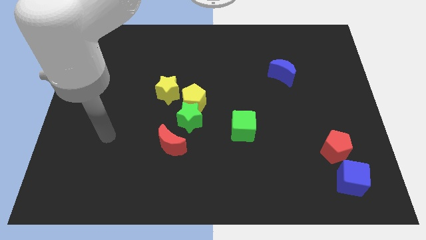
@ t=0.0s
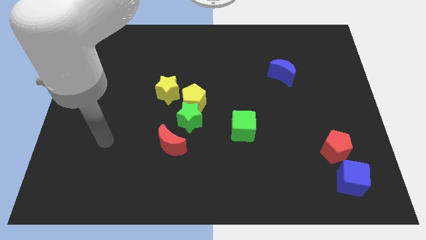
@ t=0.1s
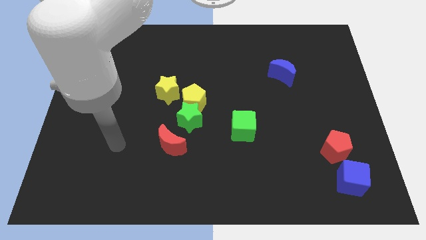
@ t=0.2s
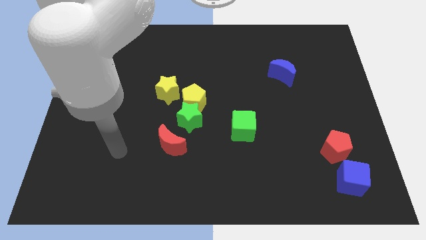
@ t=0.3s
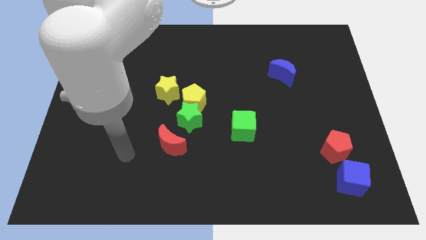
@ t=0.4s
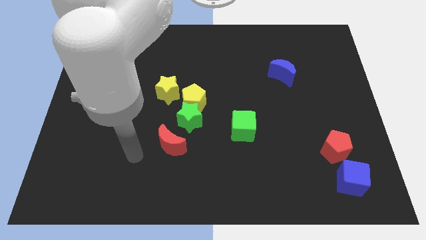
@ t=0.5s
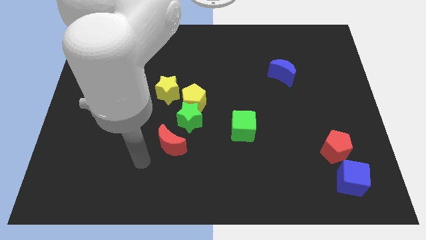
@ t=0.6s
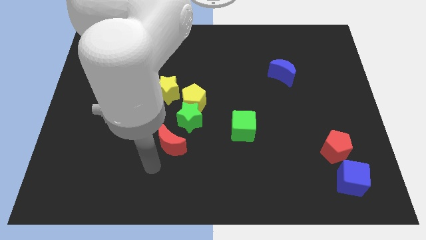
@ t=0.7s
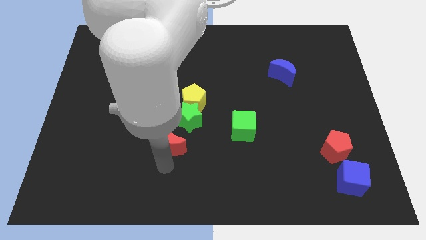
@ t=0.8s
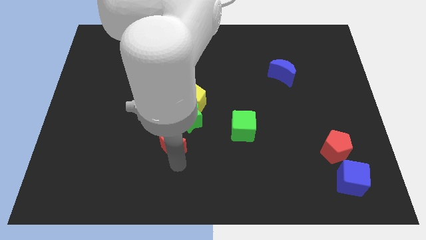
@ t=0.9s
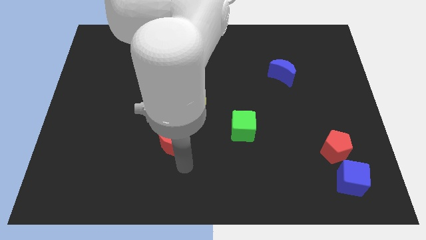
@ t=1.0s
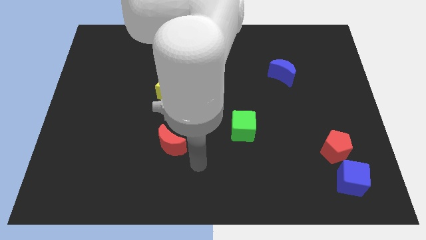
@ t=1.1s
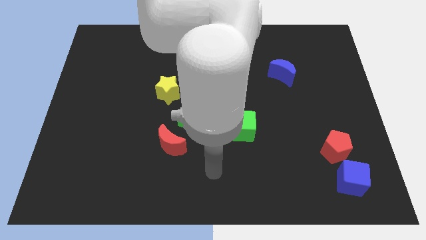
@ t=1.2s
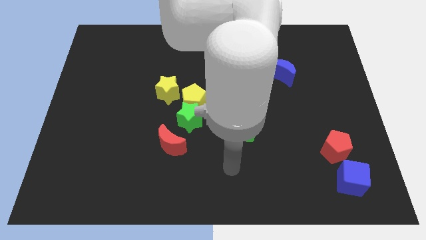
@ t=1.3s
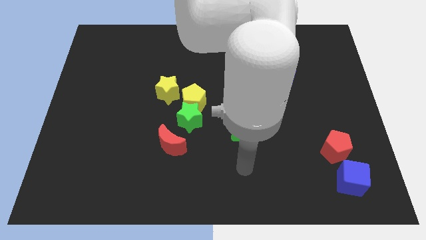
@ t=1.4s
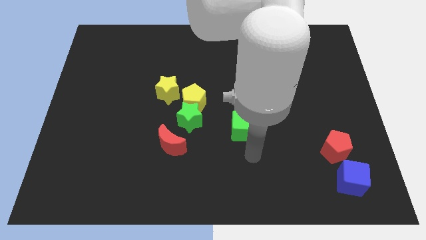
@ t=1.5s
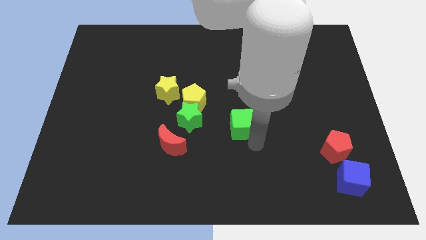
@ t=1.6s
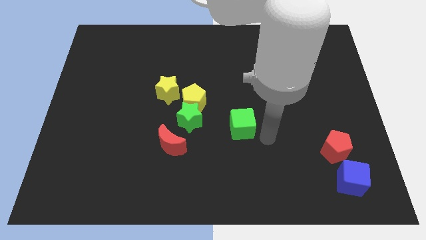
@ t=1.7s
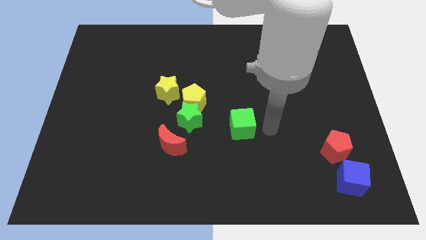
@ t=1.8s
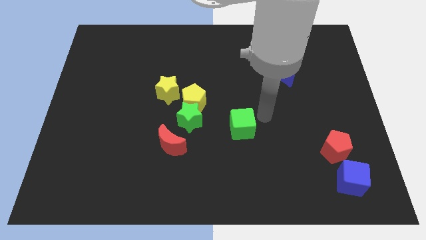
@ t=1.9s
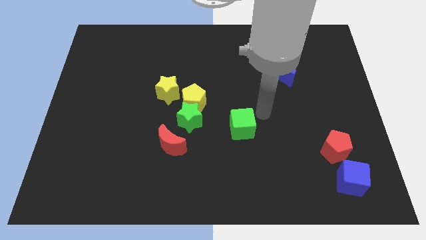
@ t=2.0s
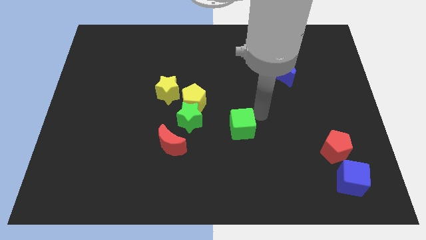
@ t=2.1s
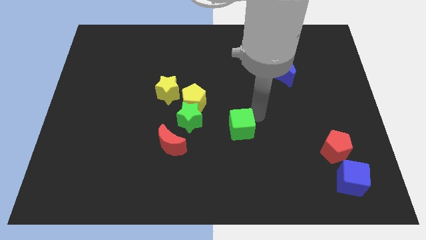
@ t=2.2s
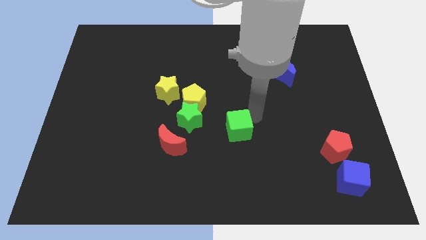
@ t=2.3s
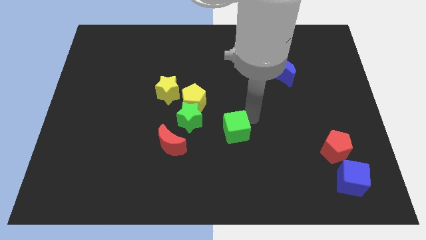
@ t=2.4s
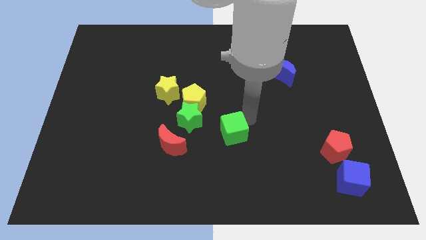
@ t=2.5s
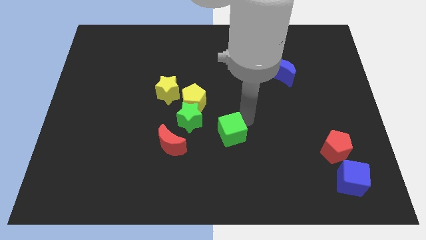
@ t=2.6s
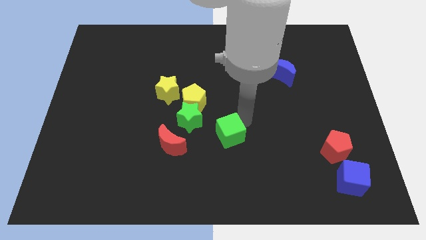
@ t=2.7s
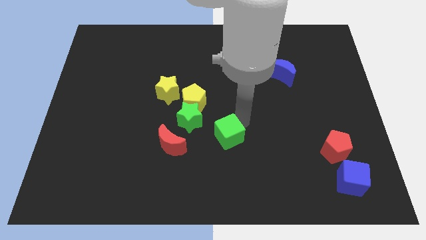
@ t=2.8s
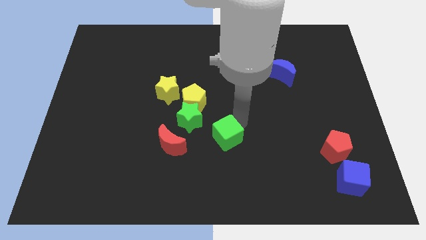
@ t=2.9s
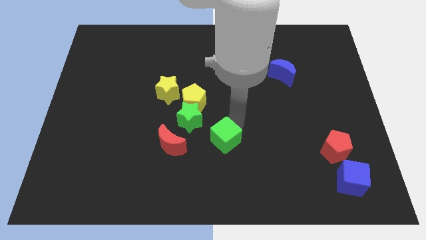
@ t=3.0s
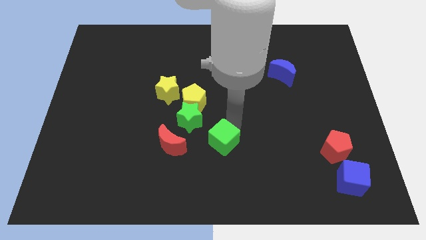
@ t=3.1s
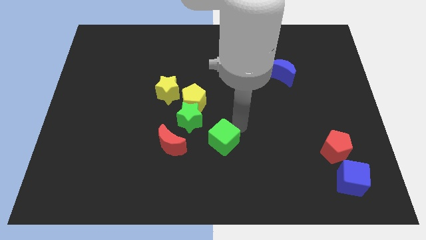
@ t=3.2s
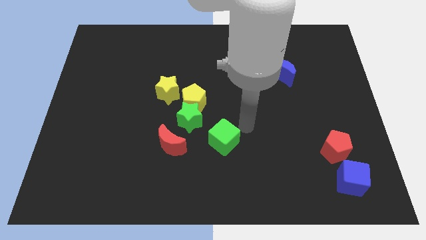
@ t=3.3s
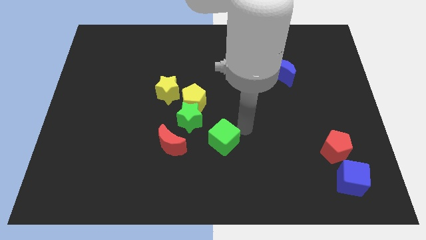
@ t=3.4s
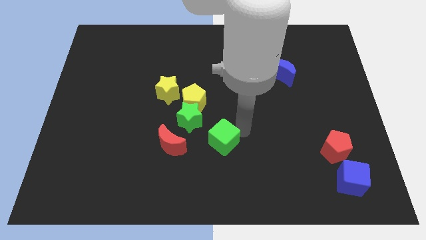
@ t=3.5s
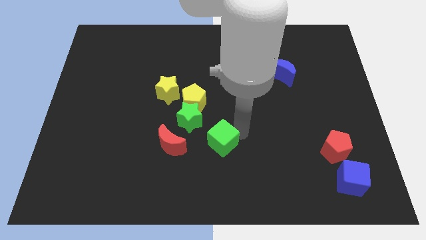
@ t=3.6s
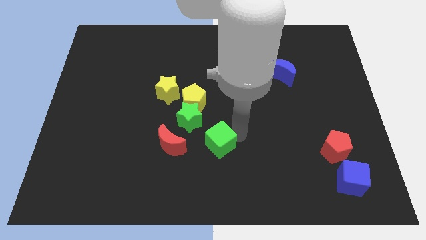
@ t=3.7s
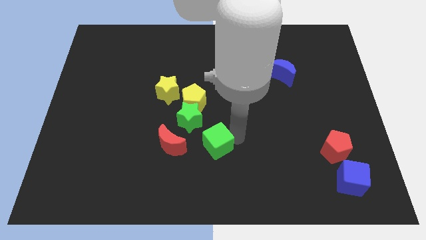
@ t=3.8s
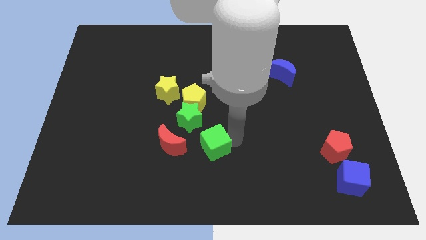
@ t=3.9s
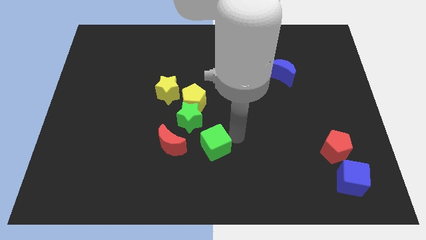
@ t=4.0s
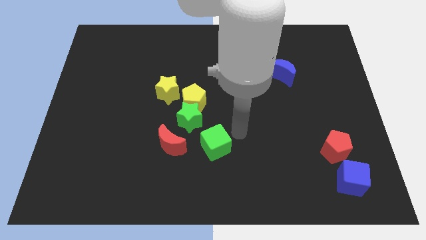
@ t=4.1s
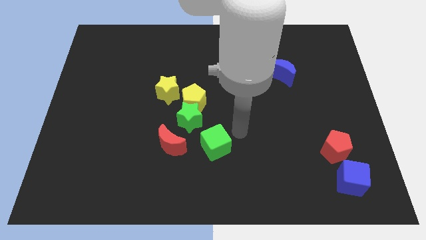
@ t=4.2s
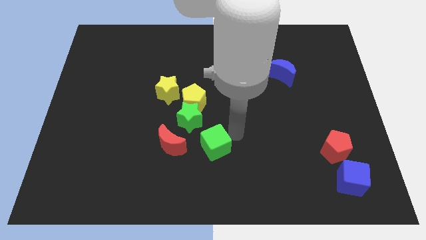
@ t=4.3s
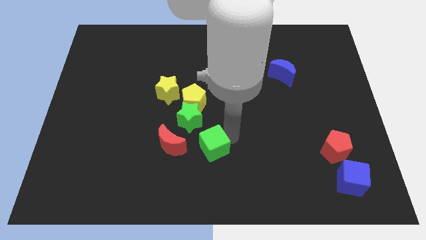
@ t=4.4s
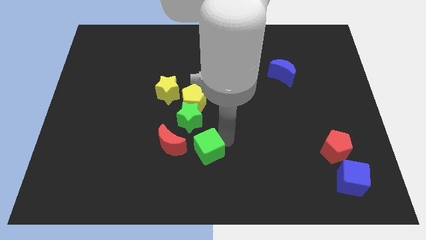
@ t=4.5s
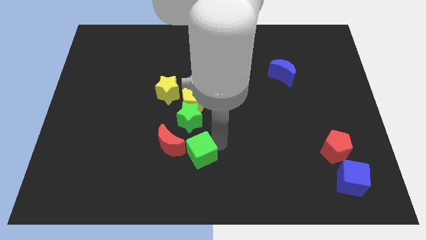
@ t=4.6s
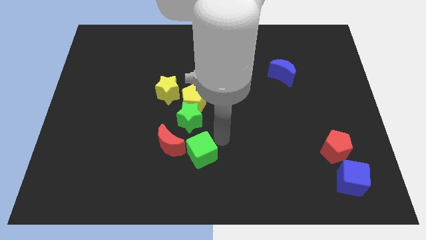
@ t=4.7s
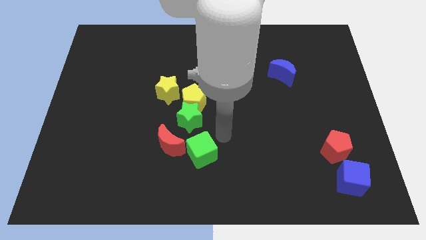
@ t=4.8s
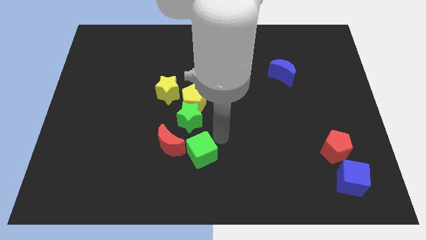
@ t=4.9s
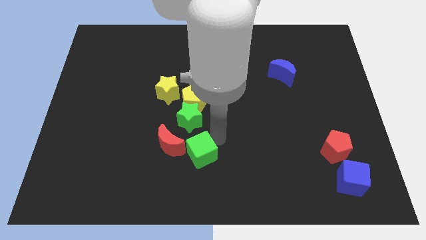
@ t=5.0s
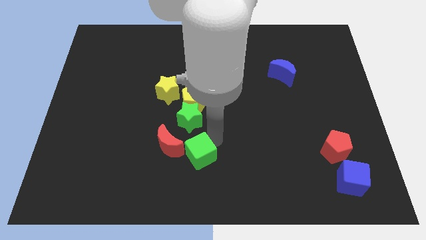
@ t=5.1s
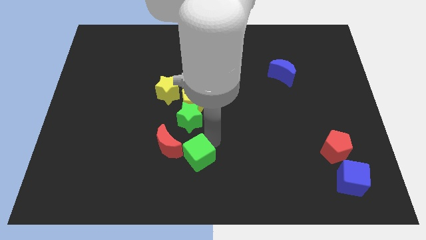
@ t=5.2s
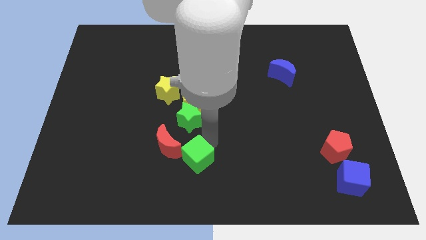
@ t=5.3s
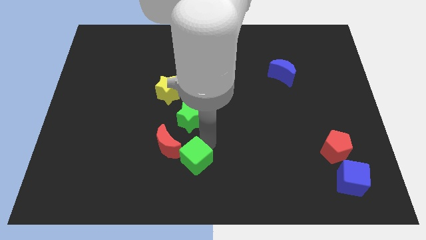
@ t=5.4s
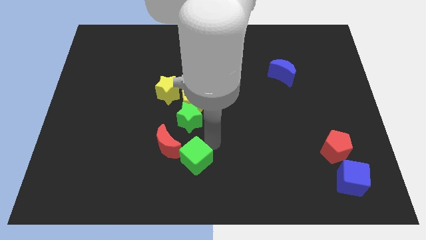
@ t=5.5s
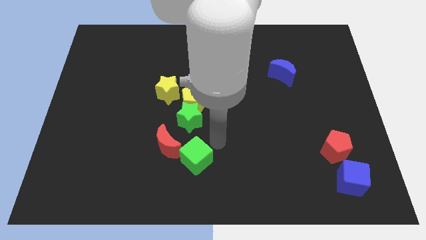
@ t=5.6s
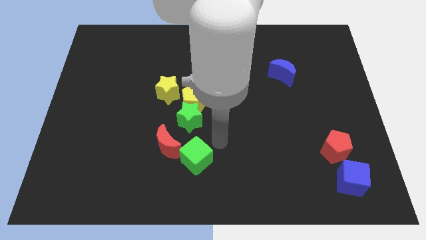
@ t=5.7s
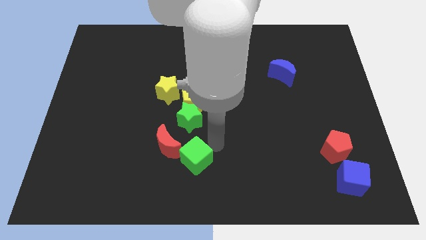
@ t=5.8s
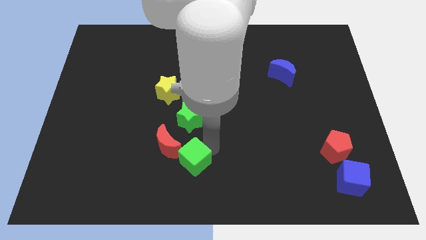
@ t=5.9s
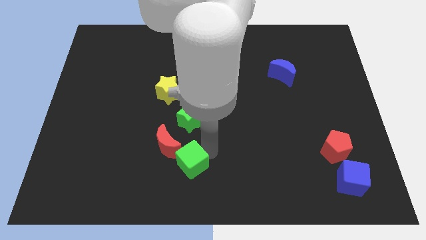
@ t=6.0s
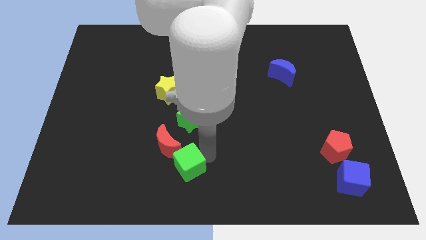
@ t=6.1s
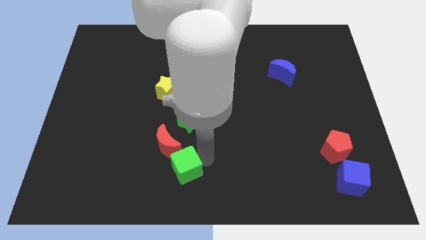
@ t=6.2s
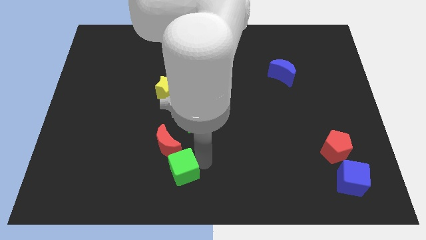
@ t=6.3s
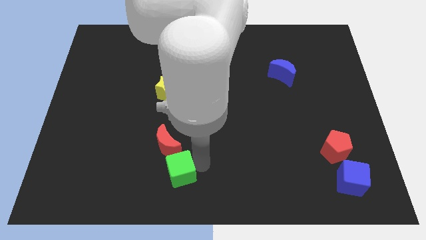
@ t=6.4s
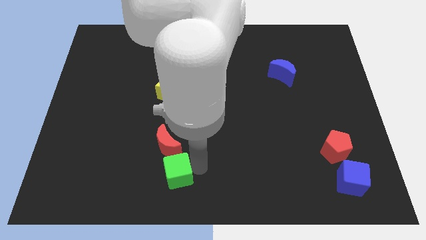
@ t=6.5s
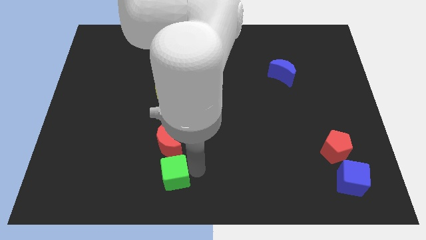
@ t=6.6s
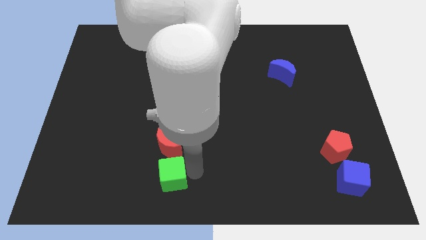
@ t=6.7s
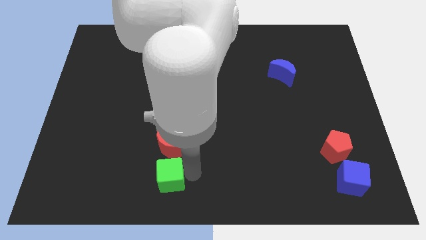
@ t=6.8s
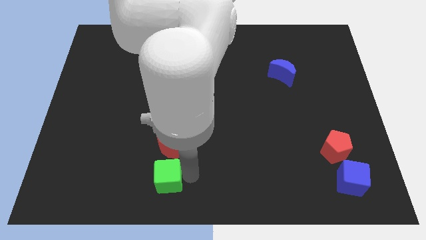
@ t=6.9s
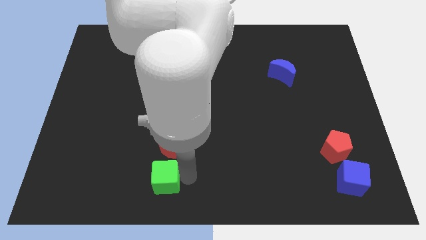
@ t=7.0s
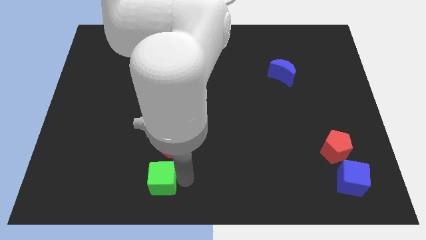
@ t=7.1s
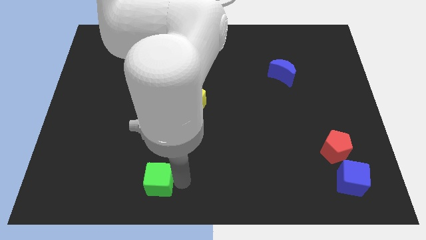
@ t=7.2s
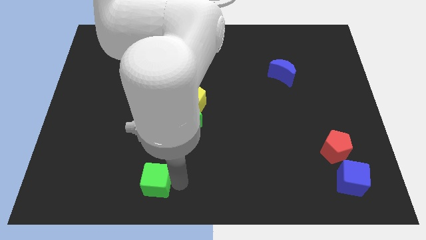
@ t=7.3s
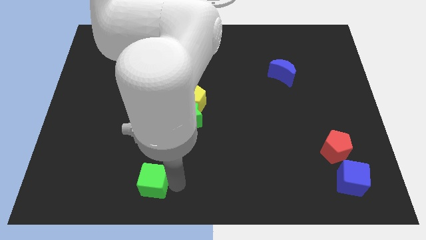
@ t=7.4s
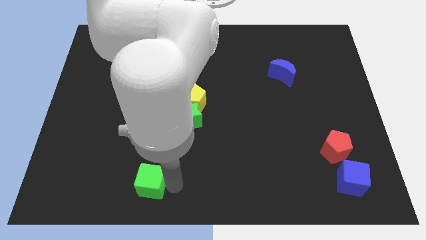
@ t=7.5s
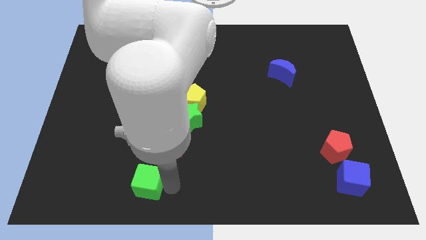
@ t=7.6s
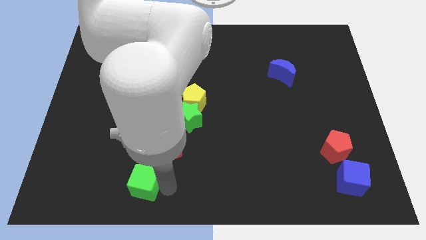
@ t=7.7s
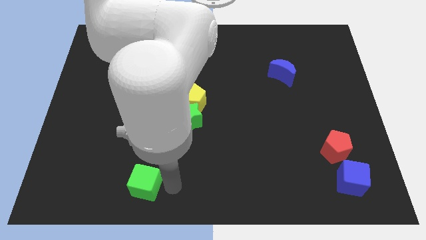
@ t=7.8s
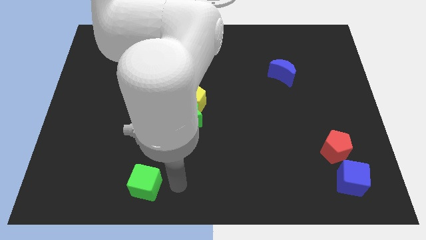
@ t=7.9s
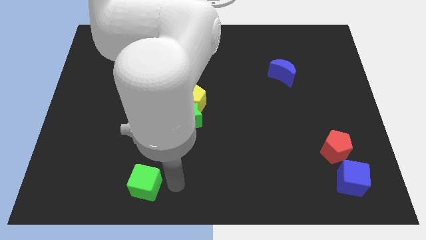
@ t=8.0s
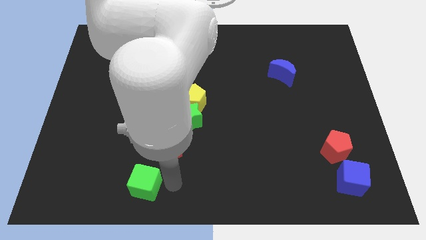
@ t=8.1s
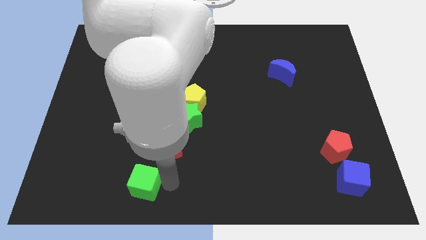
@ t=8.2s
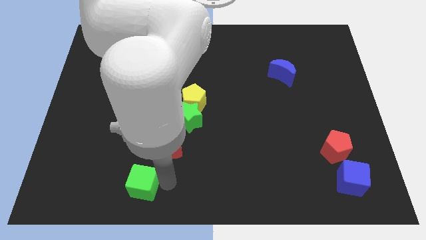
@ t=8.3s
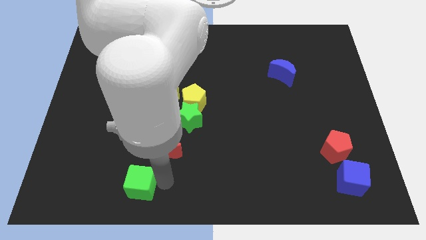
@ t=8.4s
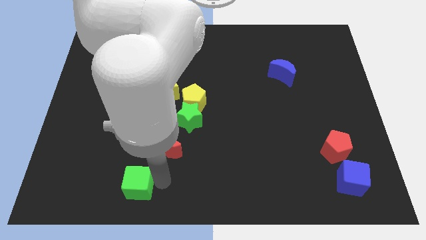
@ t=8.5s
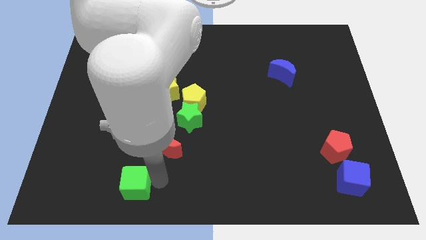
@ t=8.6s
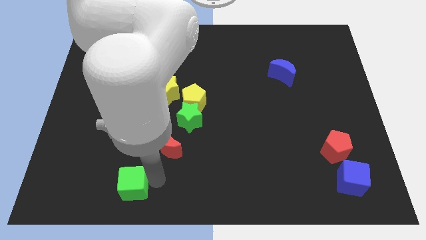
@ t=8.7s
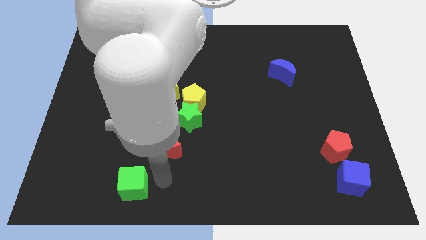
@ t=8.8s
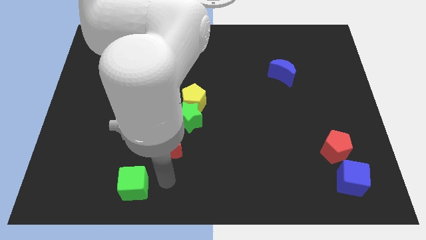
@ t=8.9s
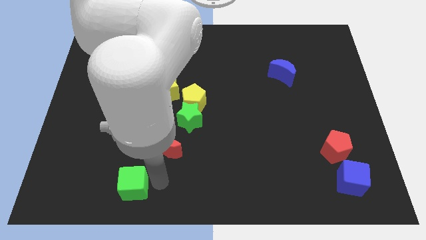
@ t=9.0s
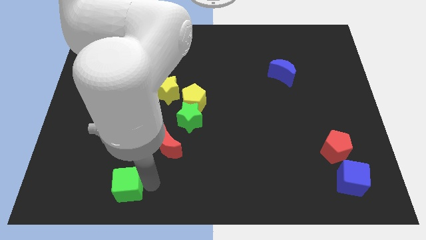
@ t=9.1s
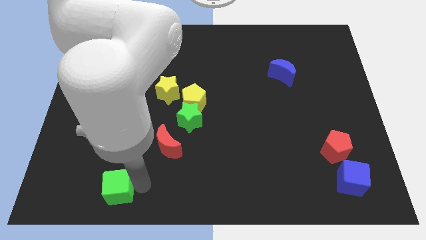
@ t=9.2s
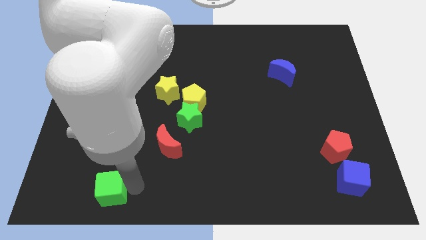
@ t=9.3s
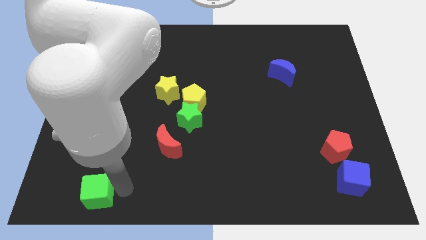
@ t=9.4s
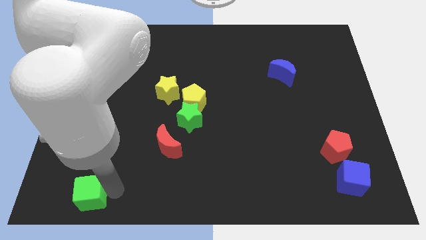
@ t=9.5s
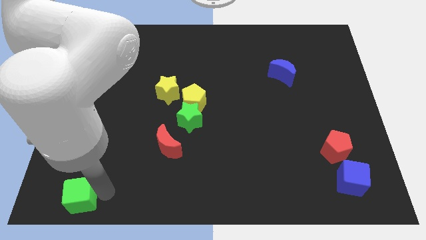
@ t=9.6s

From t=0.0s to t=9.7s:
slide the green cube to the lower left corner
